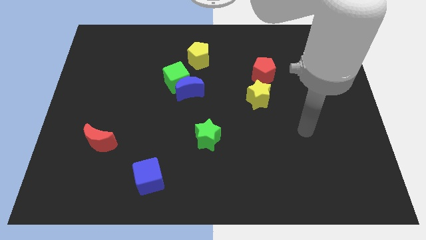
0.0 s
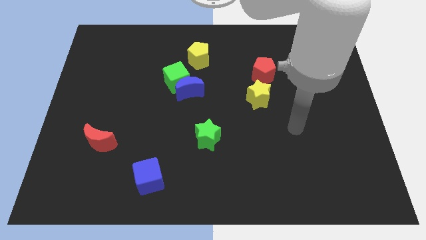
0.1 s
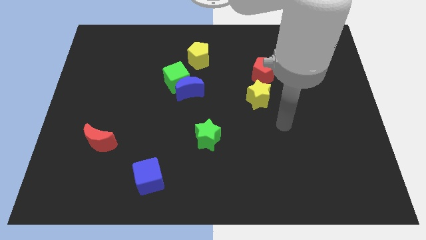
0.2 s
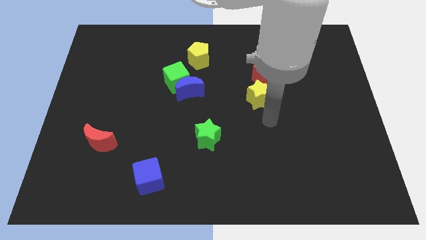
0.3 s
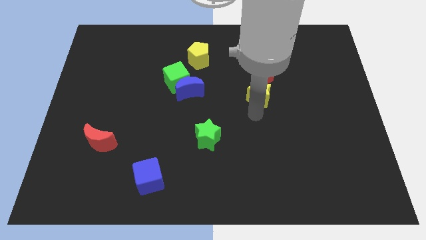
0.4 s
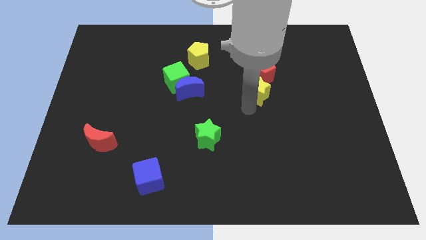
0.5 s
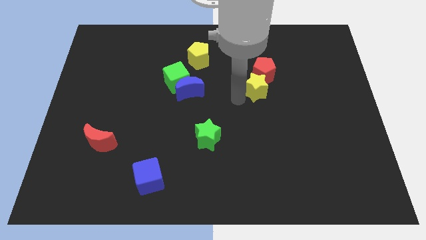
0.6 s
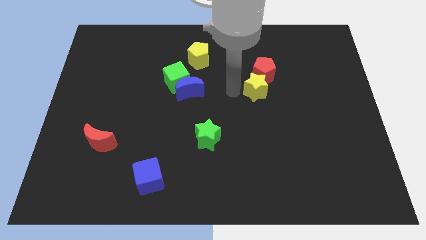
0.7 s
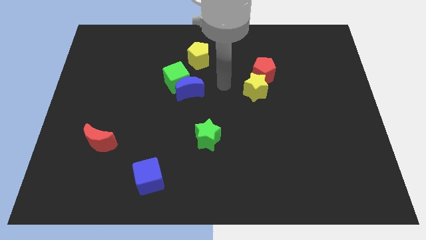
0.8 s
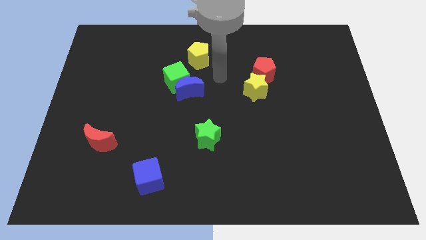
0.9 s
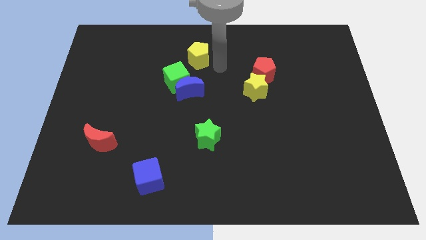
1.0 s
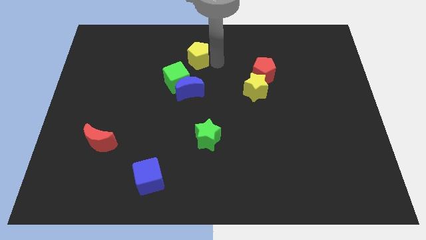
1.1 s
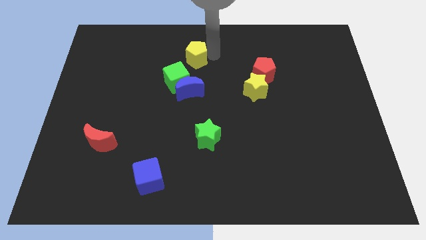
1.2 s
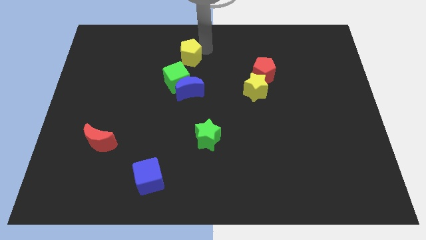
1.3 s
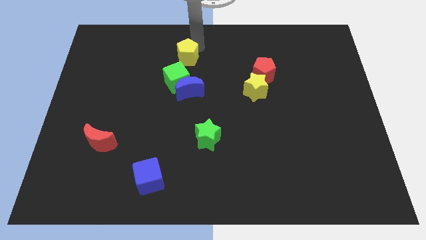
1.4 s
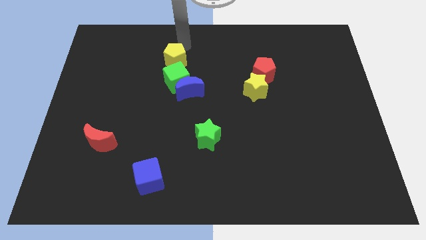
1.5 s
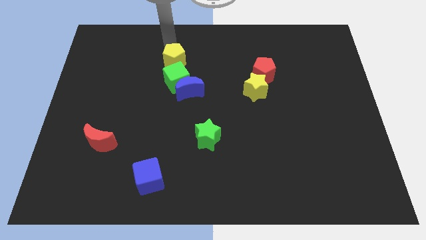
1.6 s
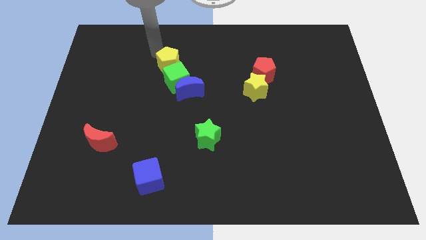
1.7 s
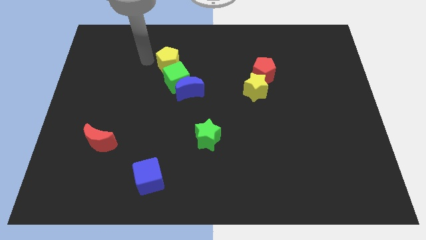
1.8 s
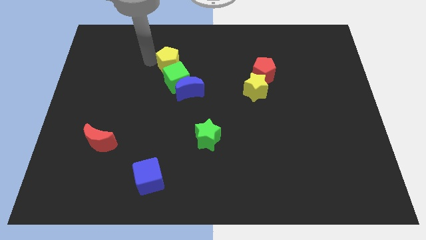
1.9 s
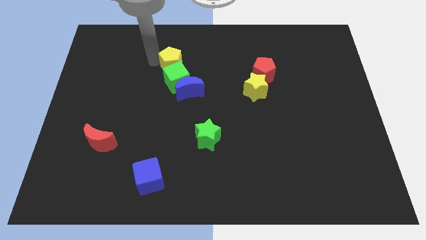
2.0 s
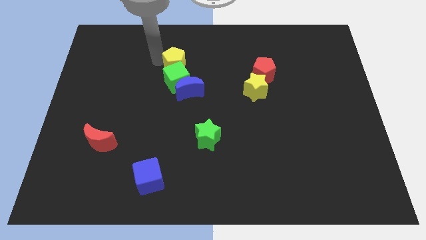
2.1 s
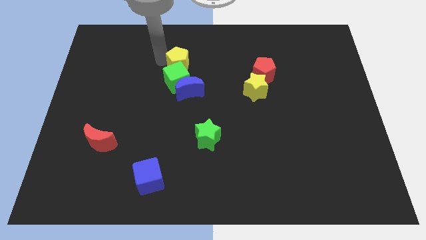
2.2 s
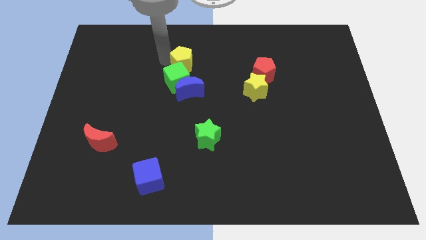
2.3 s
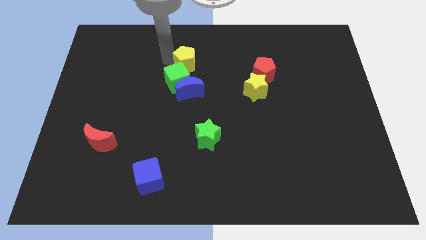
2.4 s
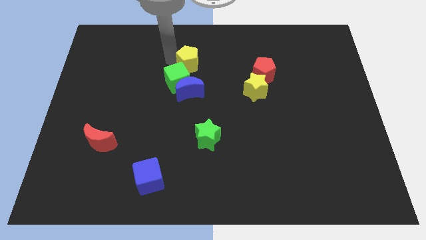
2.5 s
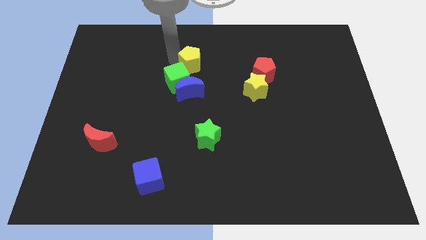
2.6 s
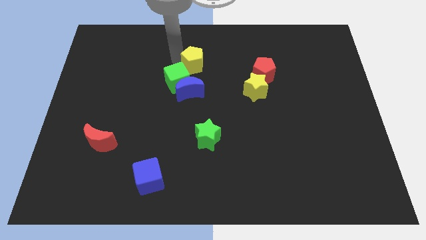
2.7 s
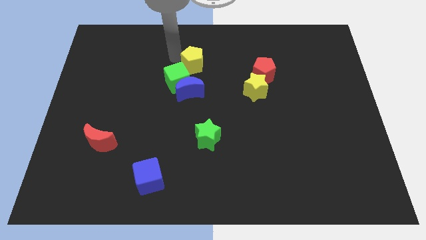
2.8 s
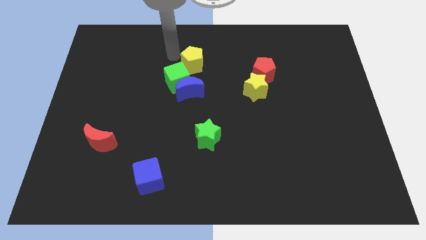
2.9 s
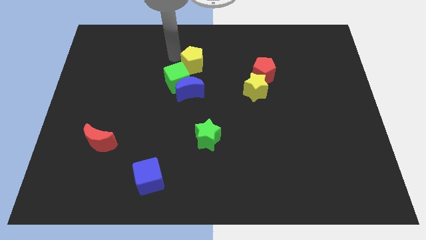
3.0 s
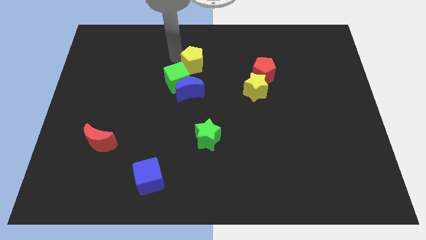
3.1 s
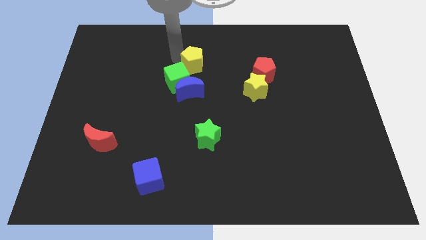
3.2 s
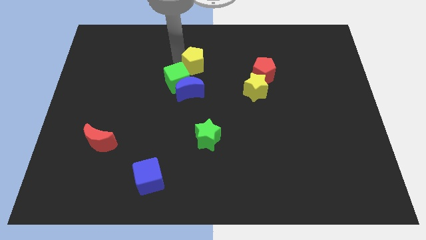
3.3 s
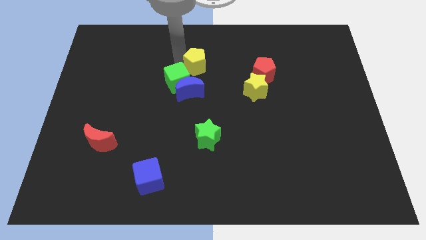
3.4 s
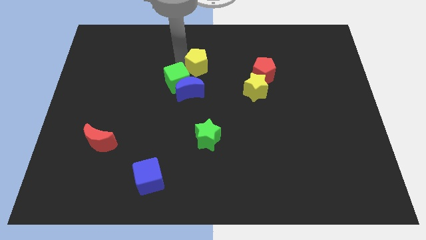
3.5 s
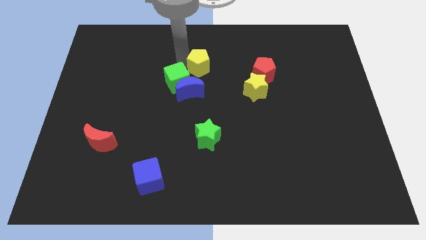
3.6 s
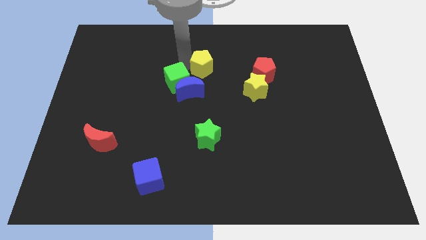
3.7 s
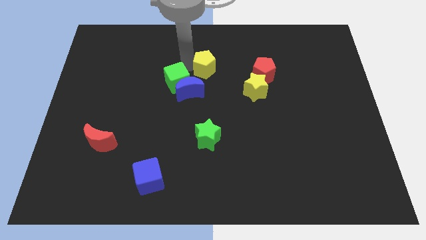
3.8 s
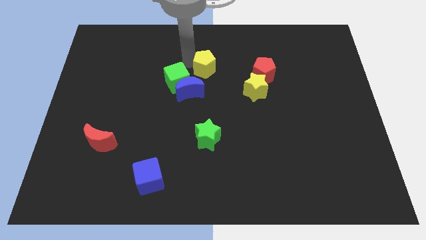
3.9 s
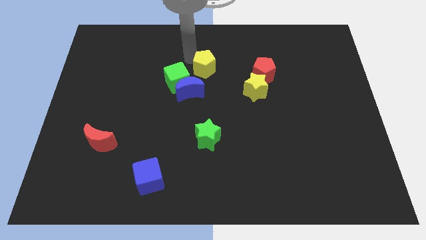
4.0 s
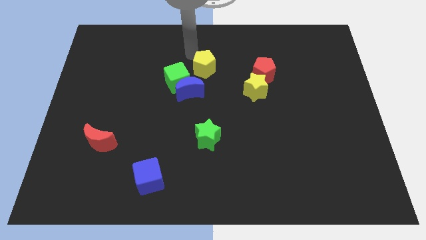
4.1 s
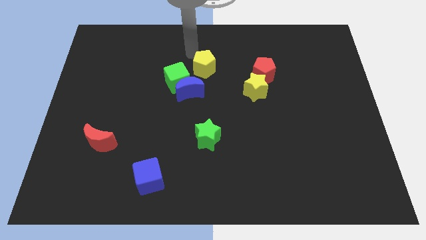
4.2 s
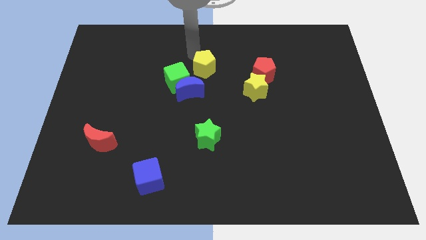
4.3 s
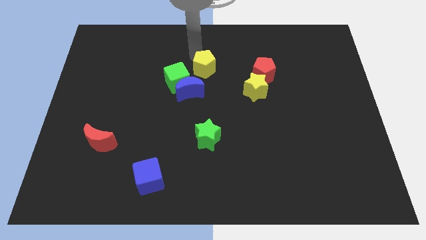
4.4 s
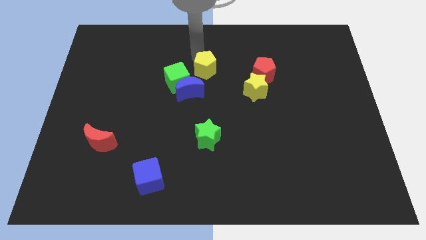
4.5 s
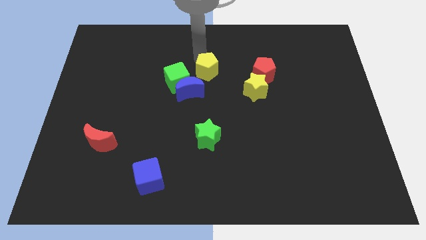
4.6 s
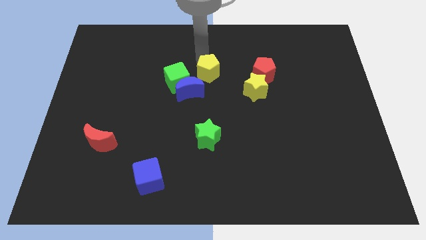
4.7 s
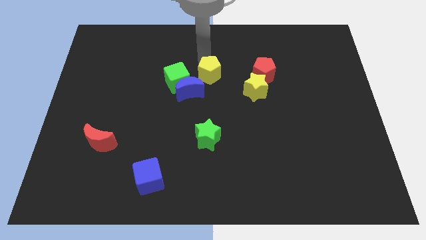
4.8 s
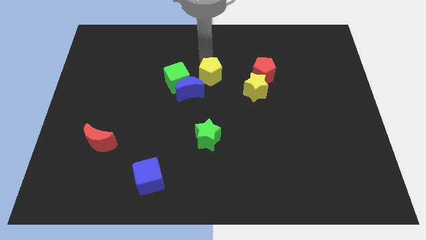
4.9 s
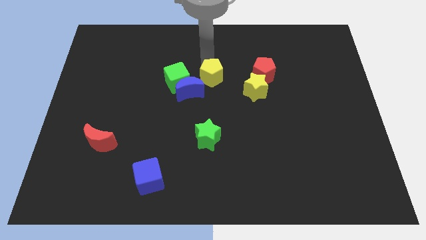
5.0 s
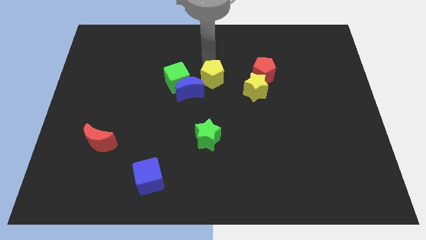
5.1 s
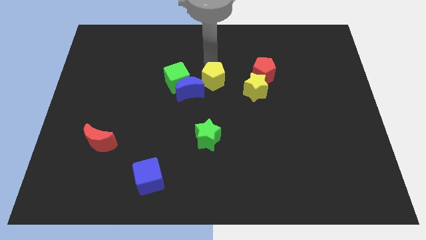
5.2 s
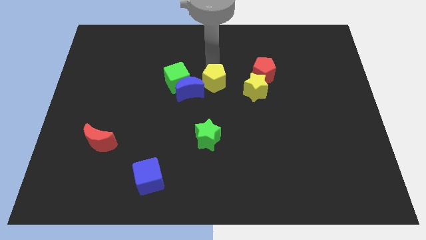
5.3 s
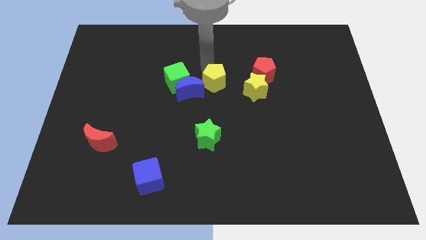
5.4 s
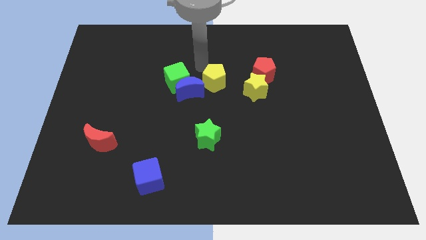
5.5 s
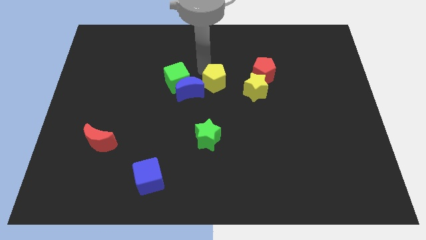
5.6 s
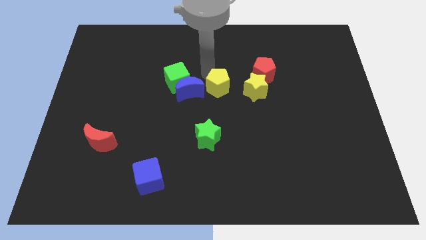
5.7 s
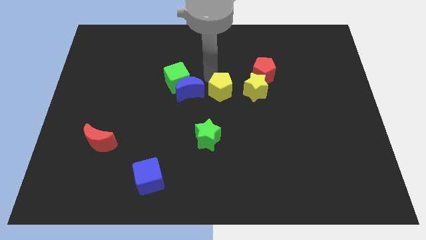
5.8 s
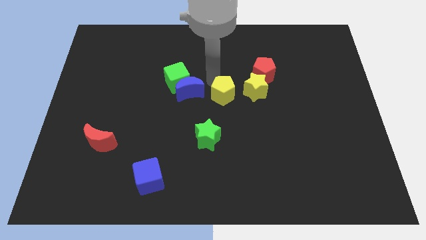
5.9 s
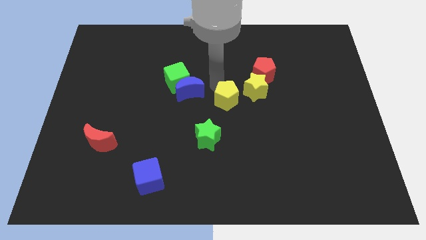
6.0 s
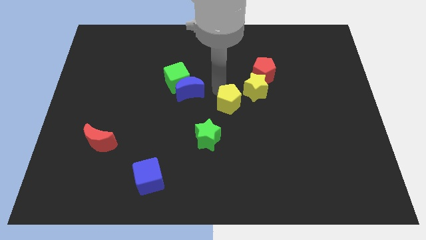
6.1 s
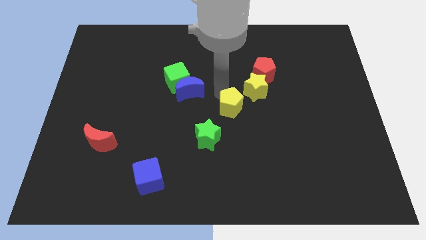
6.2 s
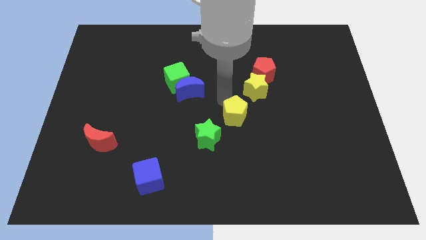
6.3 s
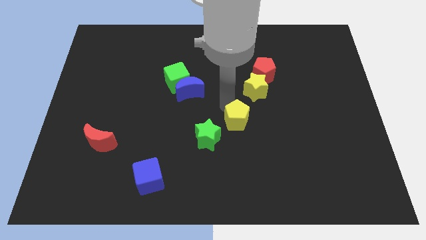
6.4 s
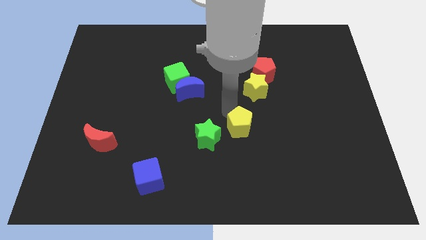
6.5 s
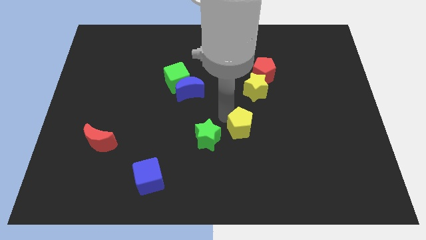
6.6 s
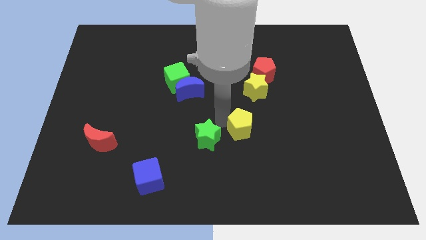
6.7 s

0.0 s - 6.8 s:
slide the yellow pentagon down and right

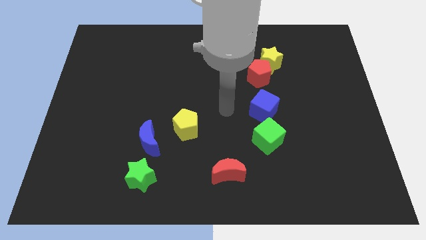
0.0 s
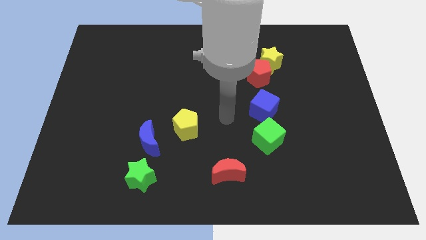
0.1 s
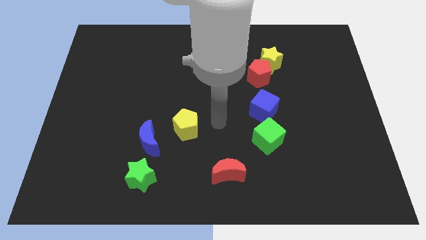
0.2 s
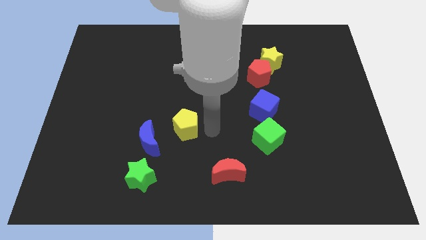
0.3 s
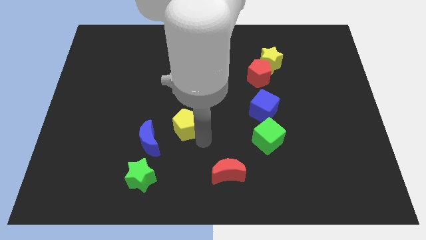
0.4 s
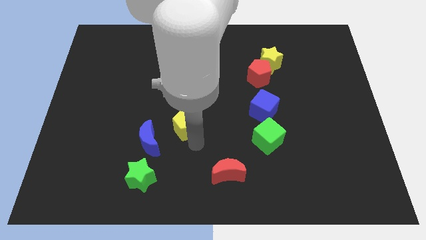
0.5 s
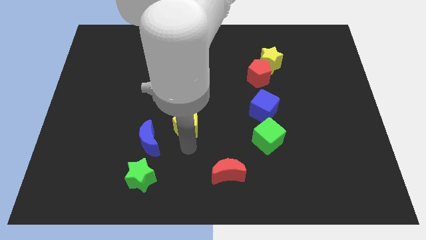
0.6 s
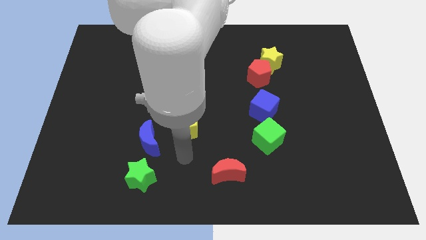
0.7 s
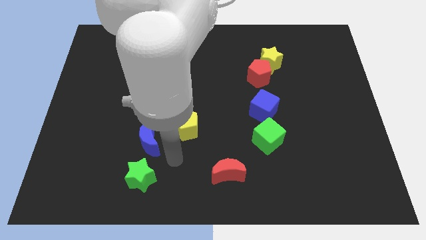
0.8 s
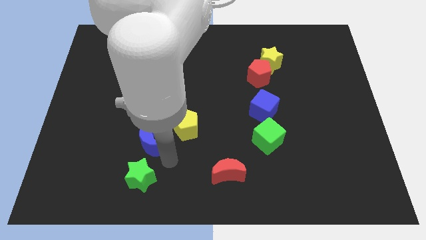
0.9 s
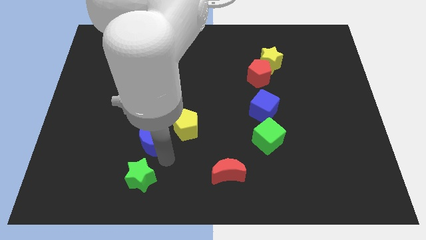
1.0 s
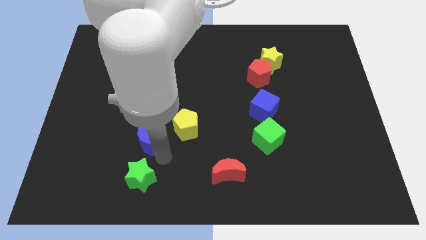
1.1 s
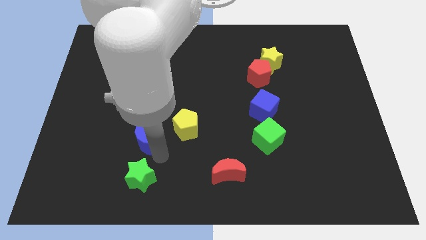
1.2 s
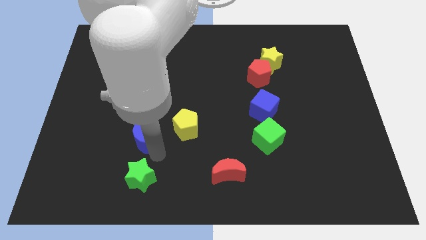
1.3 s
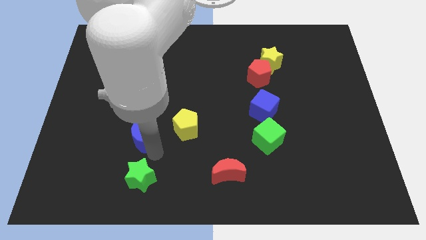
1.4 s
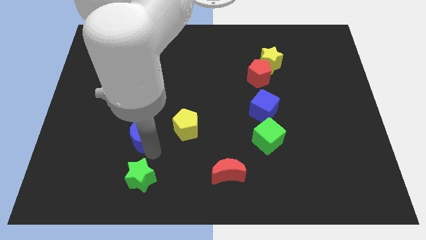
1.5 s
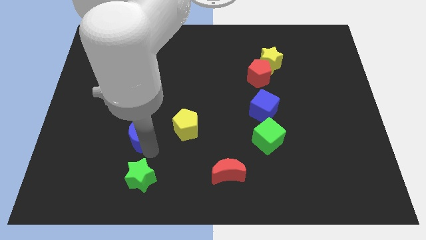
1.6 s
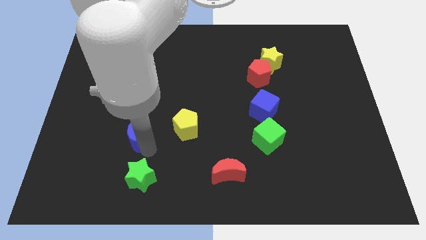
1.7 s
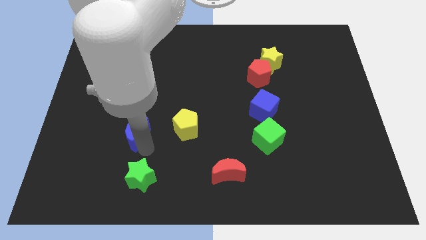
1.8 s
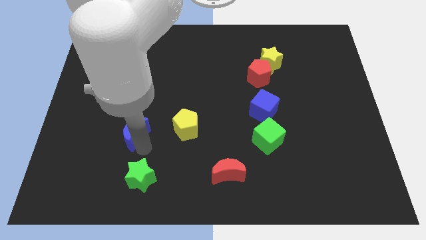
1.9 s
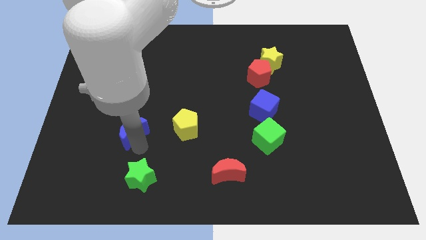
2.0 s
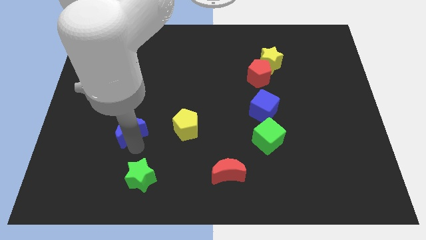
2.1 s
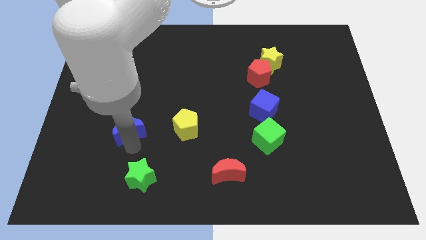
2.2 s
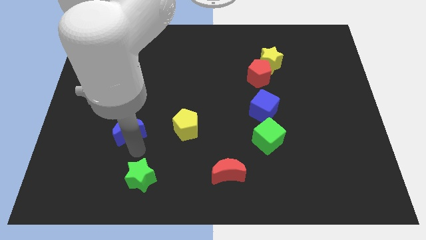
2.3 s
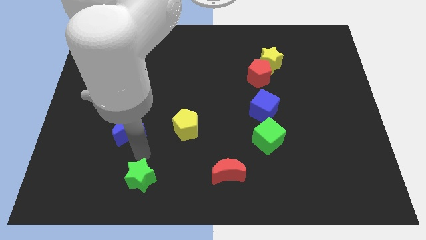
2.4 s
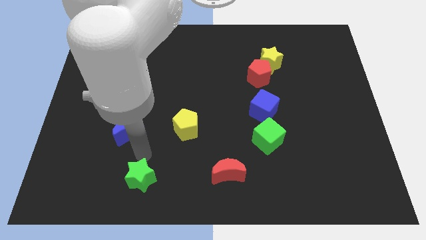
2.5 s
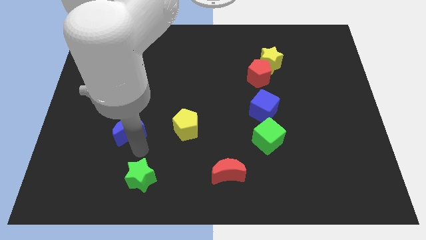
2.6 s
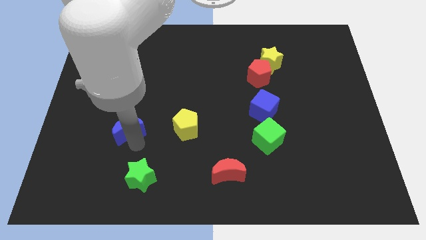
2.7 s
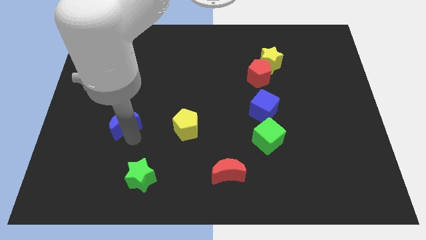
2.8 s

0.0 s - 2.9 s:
move the blue moon upwards and then to the left a little
